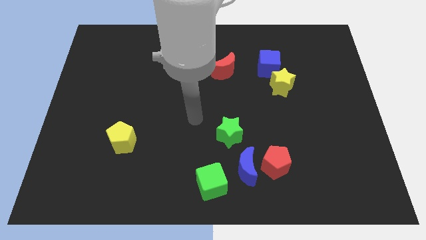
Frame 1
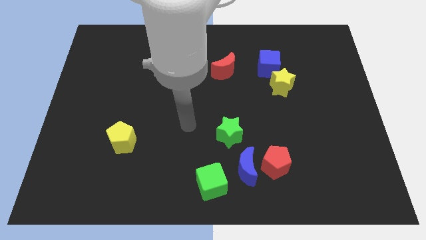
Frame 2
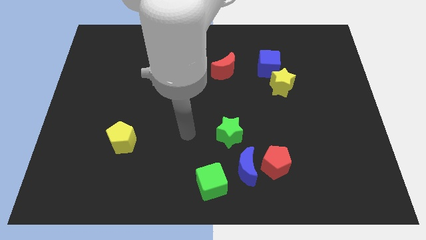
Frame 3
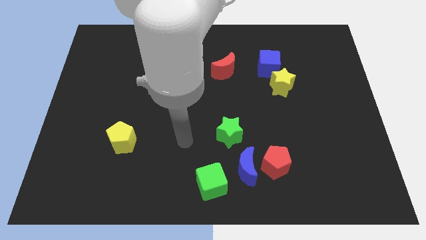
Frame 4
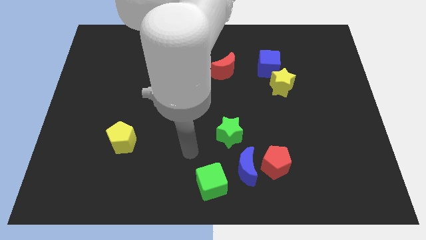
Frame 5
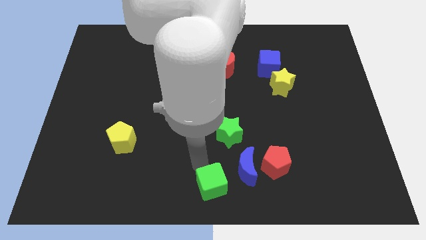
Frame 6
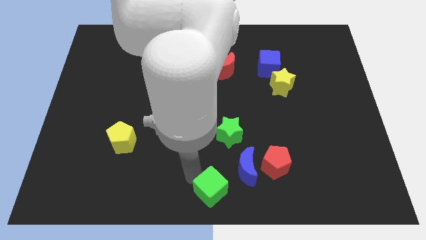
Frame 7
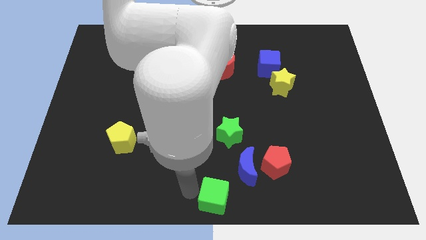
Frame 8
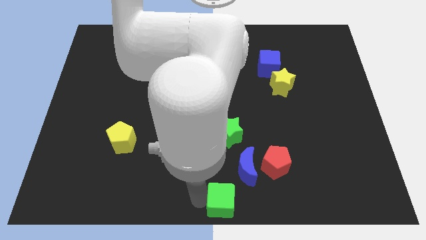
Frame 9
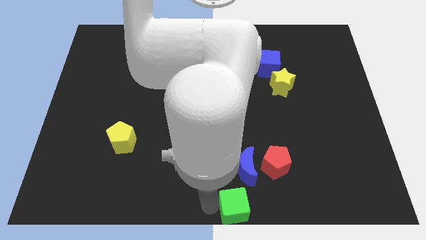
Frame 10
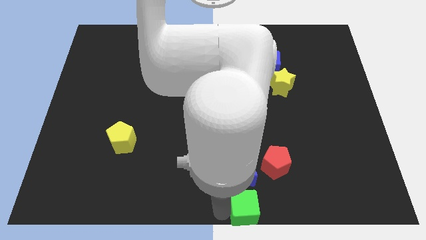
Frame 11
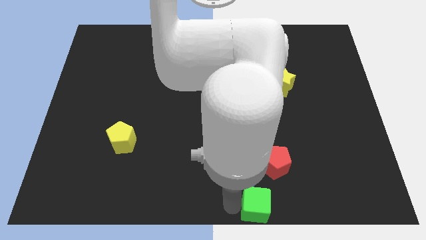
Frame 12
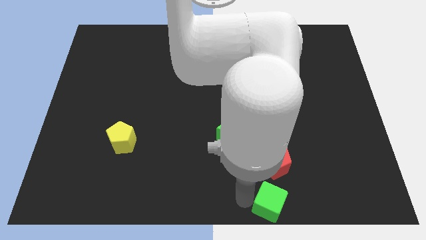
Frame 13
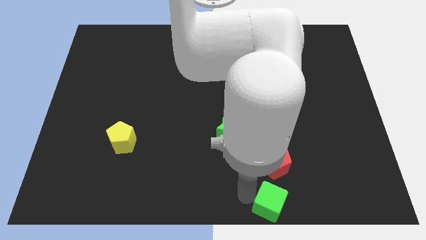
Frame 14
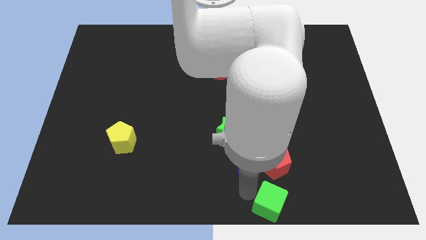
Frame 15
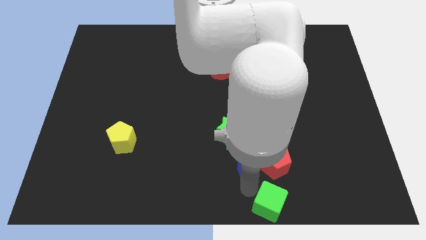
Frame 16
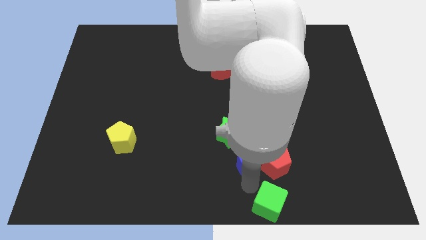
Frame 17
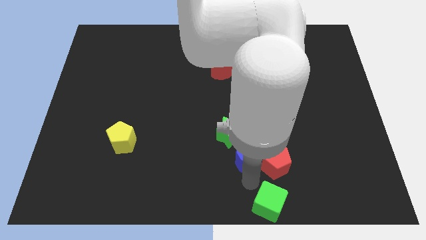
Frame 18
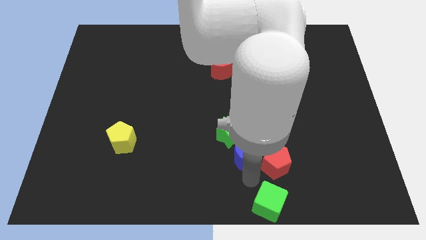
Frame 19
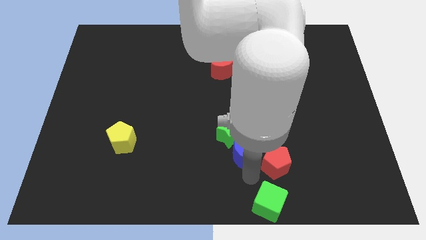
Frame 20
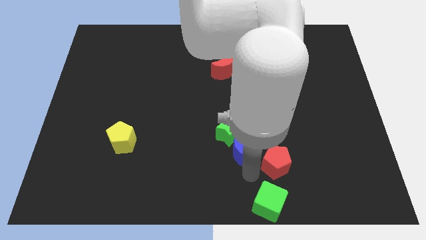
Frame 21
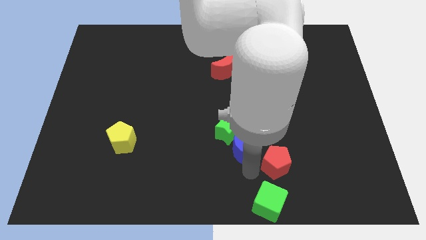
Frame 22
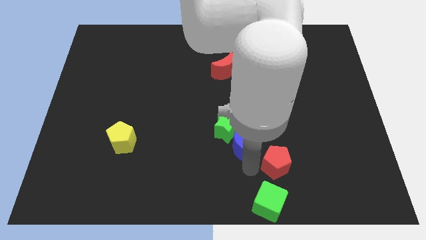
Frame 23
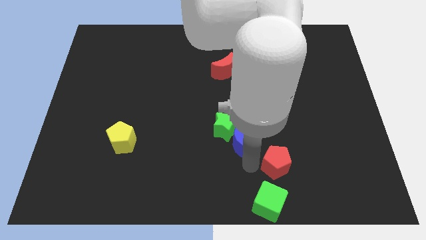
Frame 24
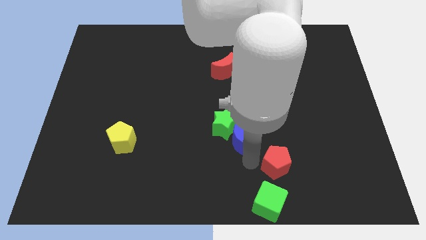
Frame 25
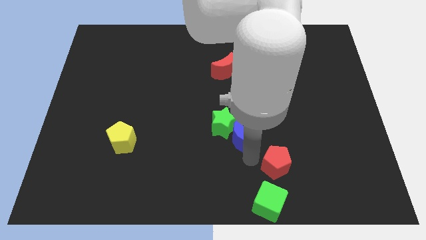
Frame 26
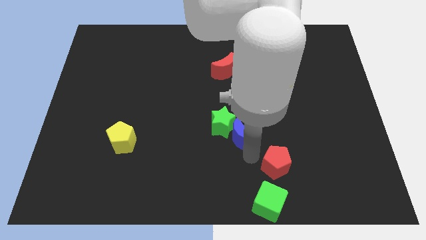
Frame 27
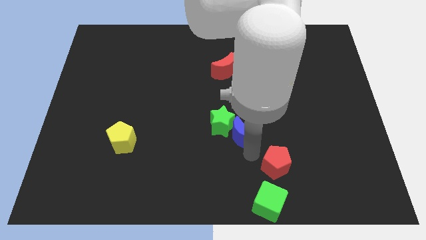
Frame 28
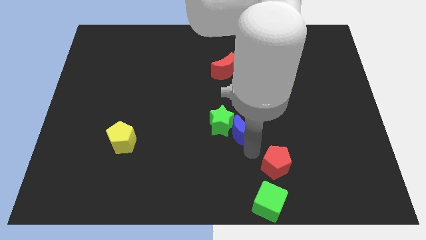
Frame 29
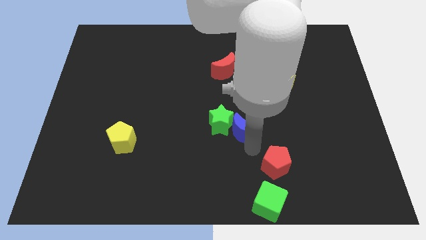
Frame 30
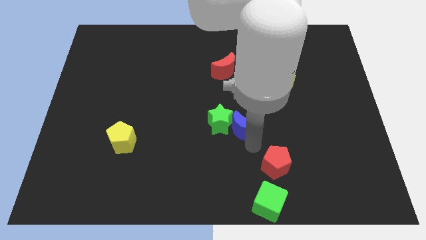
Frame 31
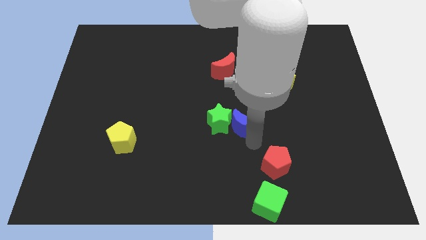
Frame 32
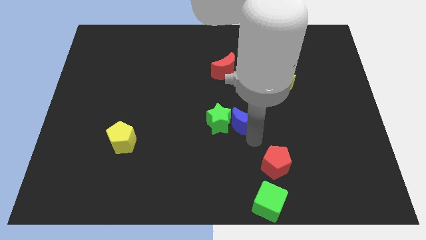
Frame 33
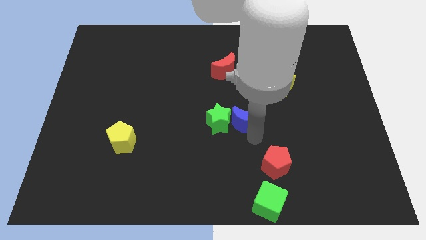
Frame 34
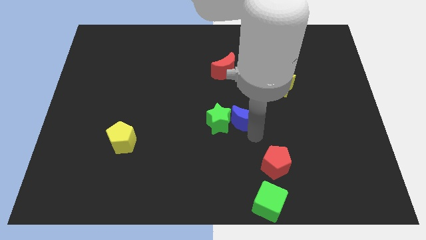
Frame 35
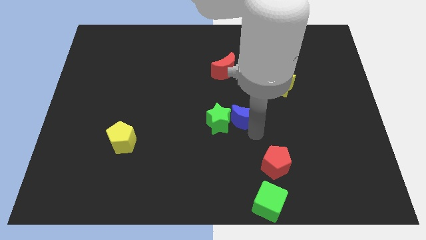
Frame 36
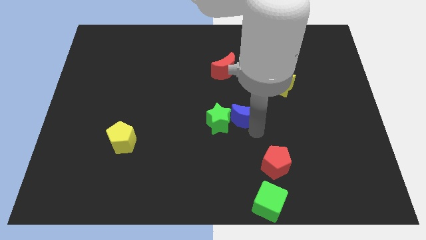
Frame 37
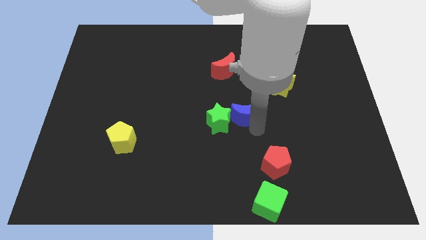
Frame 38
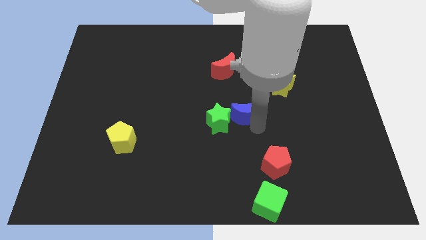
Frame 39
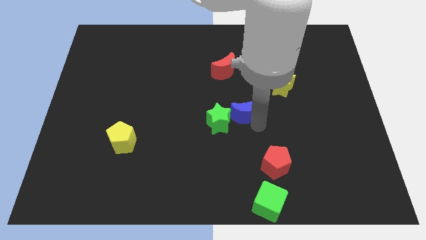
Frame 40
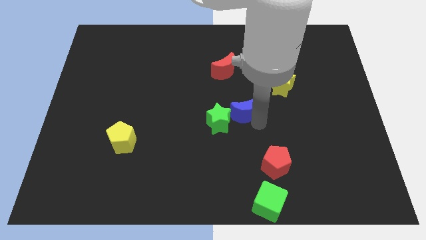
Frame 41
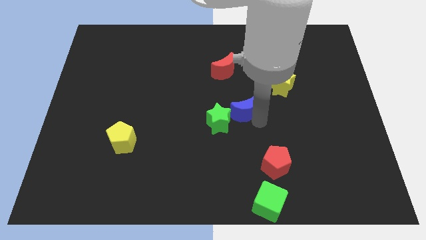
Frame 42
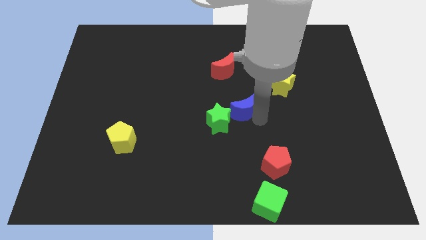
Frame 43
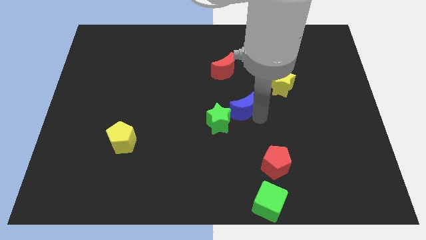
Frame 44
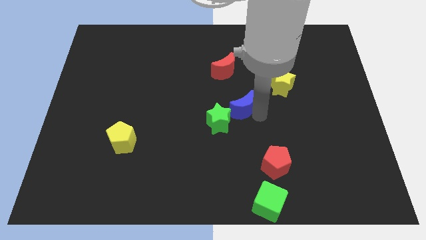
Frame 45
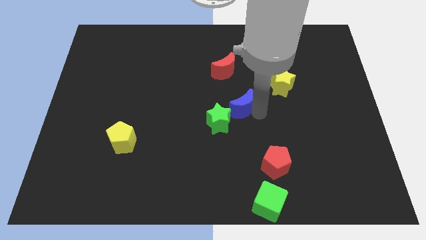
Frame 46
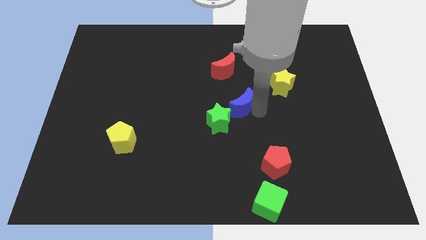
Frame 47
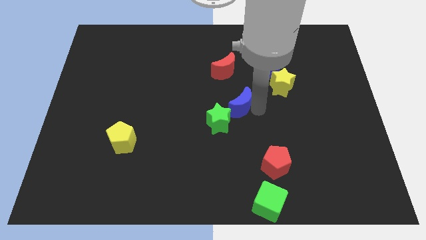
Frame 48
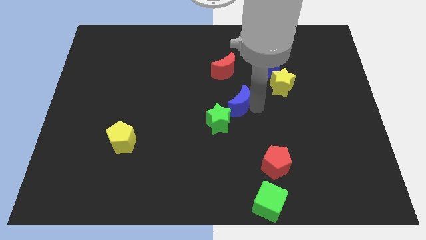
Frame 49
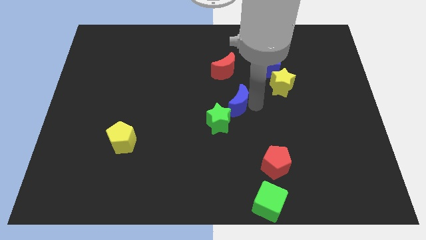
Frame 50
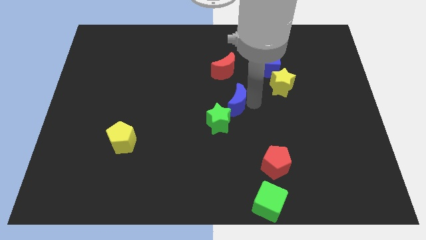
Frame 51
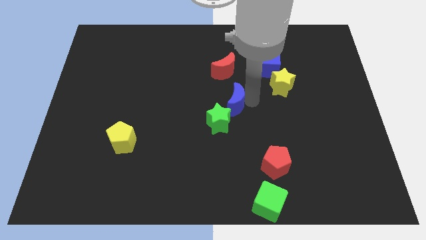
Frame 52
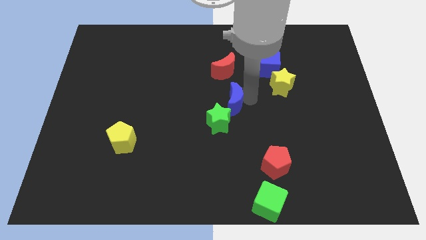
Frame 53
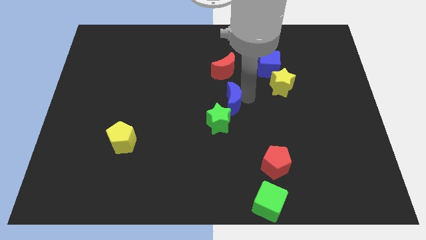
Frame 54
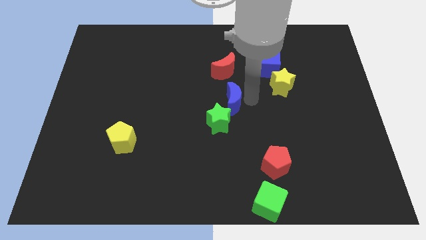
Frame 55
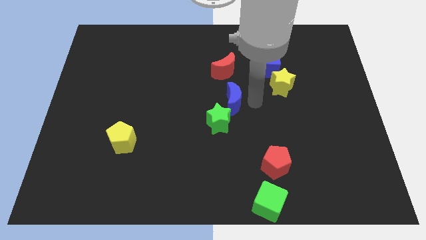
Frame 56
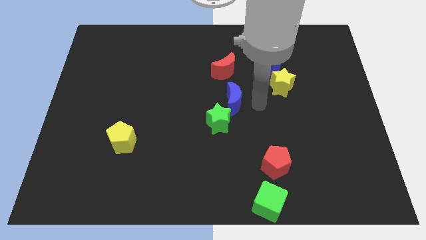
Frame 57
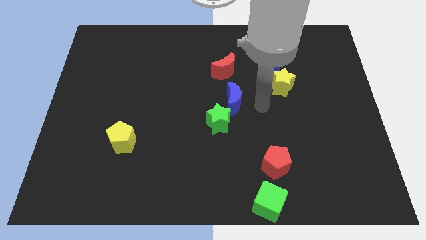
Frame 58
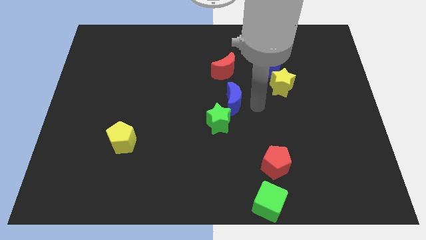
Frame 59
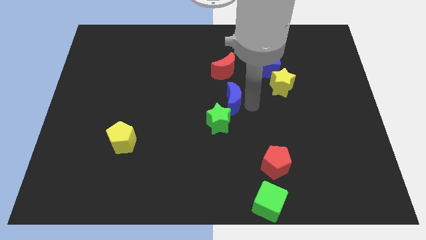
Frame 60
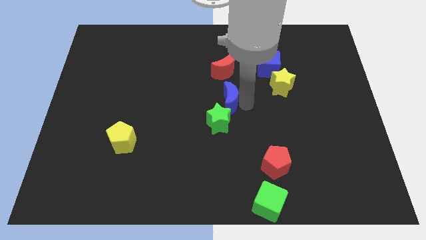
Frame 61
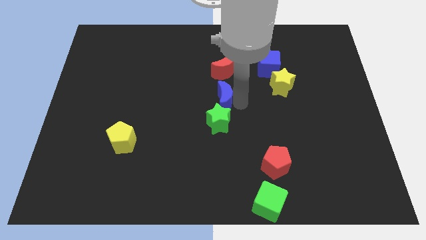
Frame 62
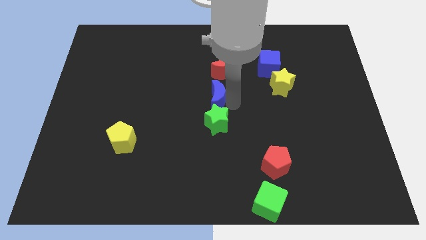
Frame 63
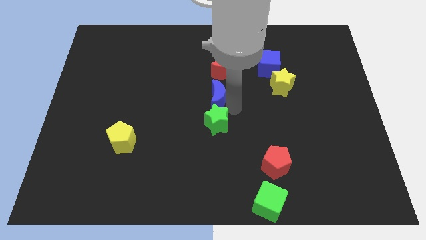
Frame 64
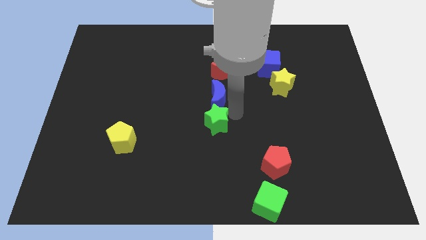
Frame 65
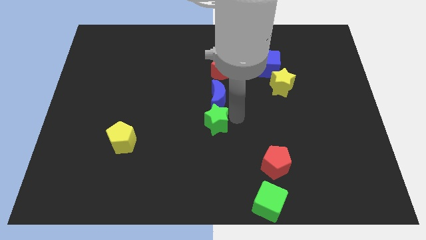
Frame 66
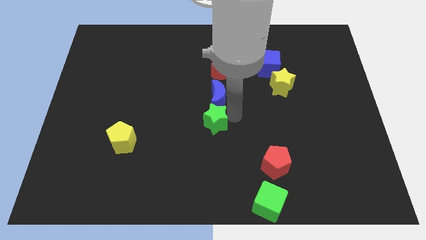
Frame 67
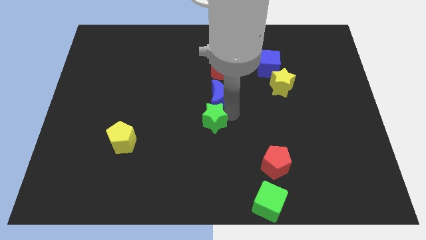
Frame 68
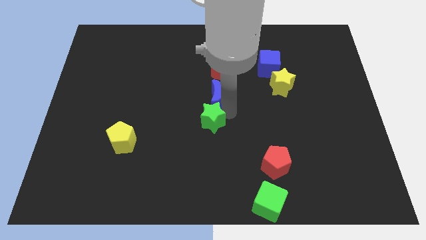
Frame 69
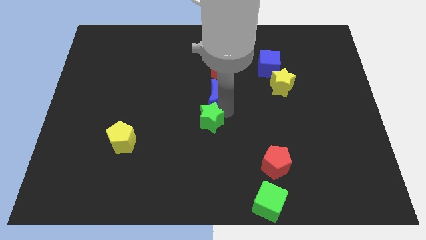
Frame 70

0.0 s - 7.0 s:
slide the blue moon to the bottom left of the red moon
